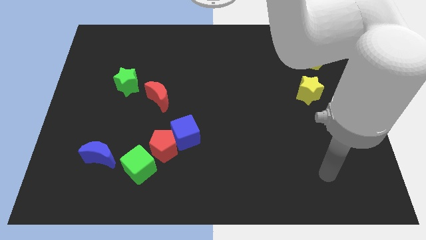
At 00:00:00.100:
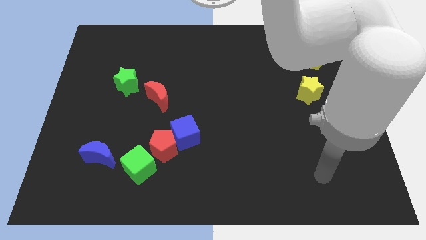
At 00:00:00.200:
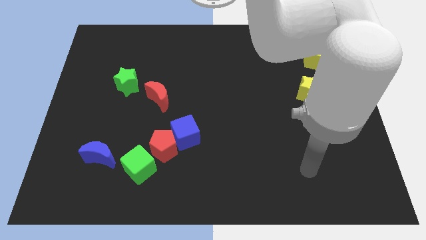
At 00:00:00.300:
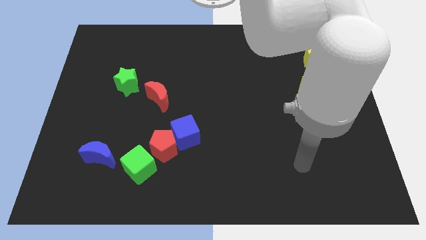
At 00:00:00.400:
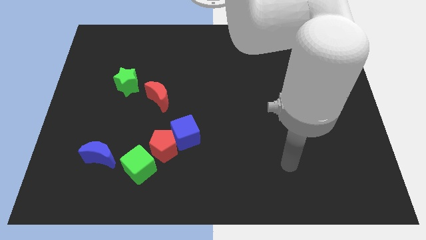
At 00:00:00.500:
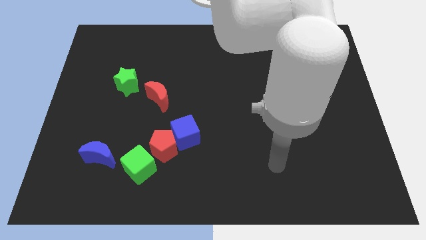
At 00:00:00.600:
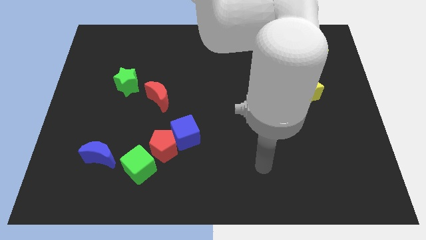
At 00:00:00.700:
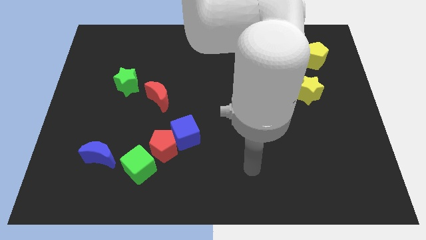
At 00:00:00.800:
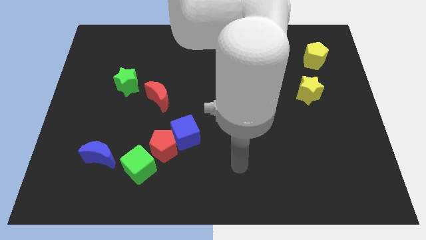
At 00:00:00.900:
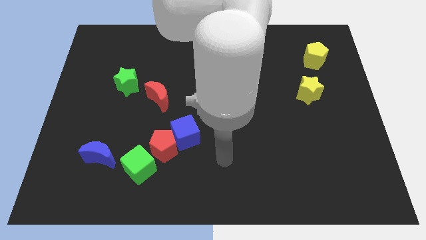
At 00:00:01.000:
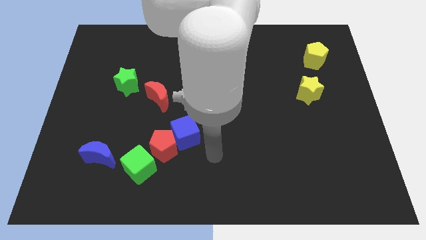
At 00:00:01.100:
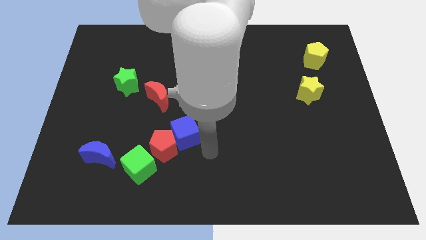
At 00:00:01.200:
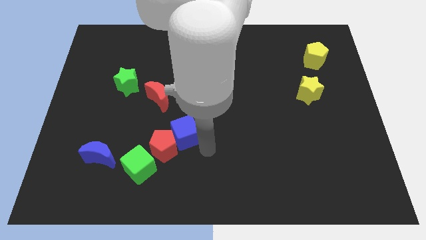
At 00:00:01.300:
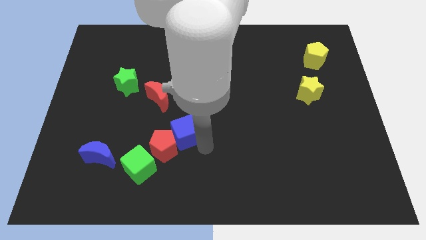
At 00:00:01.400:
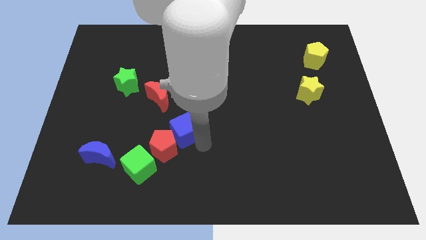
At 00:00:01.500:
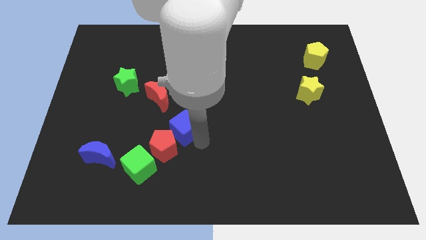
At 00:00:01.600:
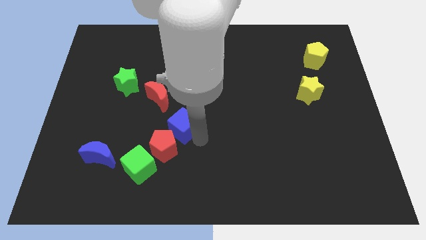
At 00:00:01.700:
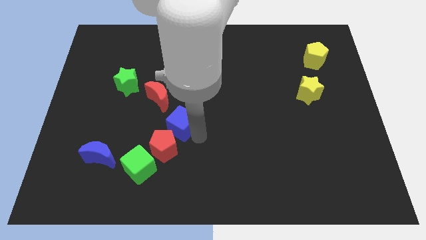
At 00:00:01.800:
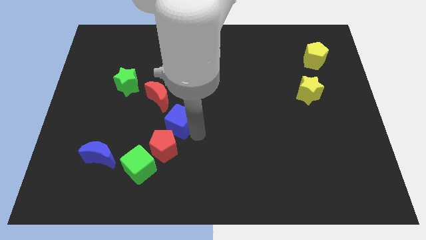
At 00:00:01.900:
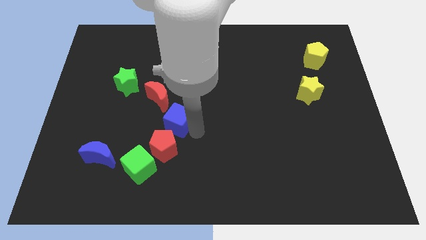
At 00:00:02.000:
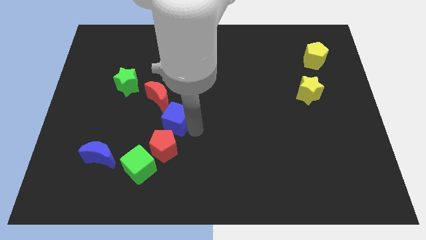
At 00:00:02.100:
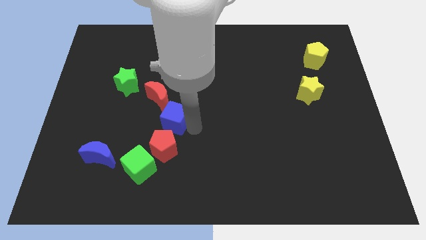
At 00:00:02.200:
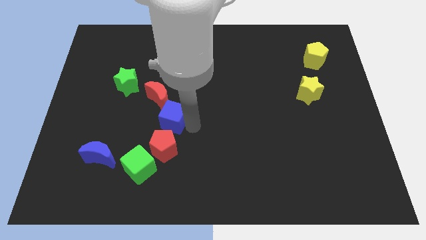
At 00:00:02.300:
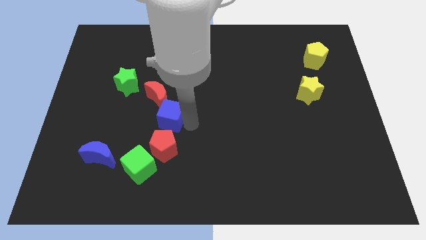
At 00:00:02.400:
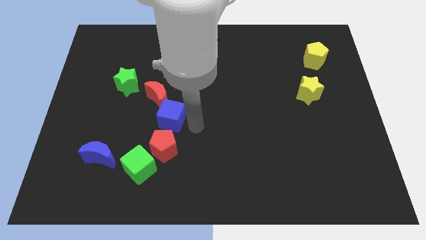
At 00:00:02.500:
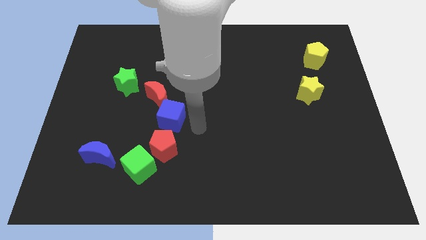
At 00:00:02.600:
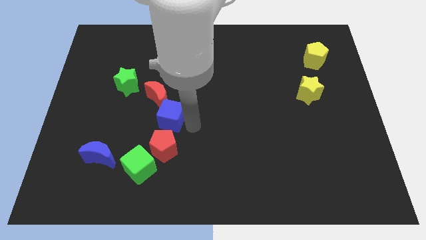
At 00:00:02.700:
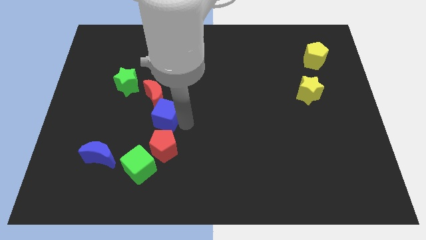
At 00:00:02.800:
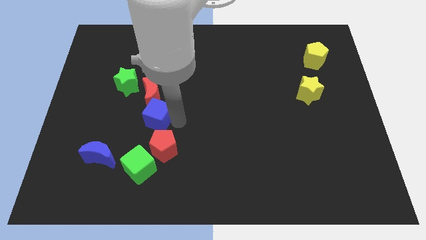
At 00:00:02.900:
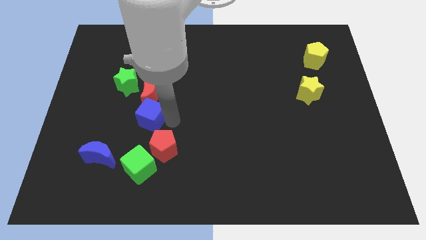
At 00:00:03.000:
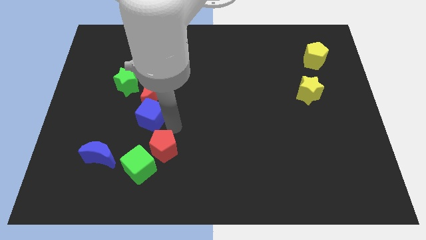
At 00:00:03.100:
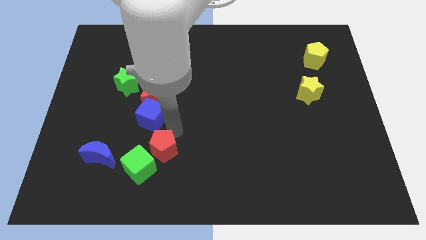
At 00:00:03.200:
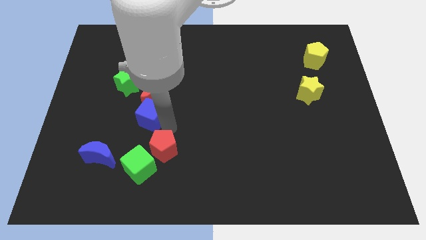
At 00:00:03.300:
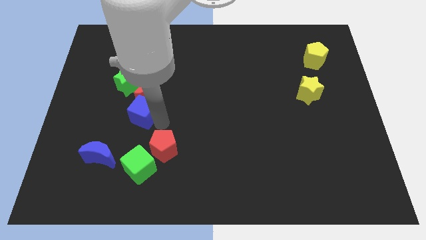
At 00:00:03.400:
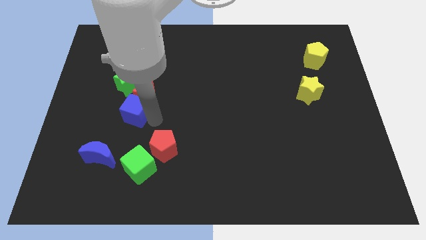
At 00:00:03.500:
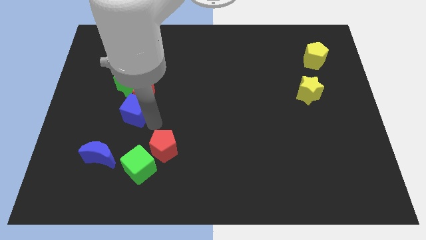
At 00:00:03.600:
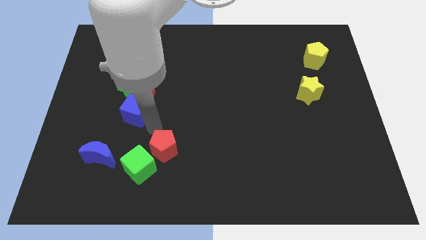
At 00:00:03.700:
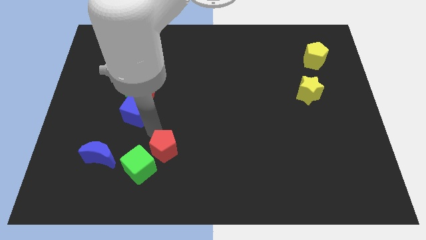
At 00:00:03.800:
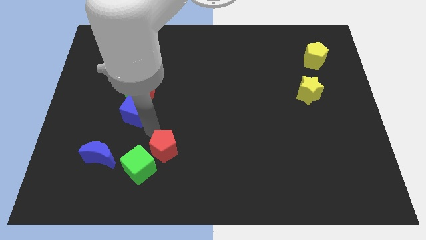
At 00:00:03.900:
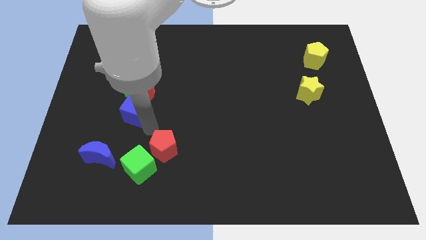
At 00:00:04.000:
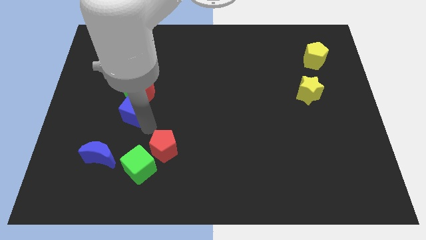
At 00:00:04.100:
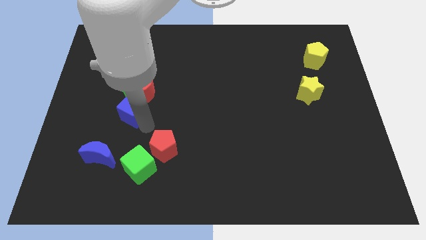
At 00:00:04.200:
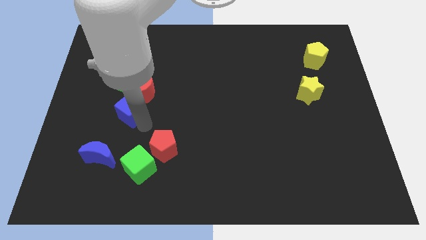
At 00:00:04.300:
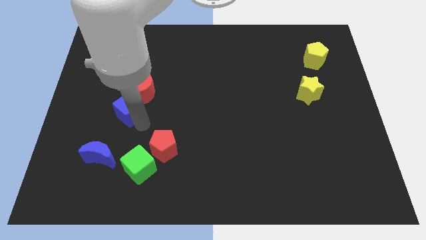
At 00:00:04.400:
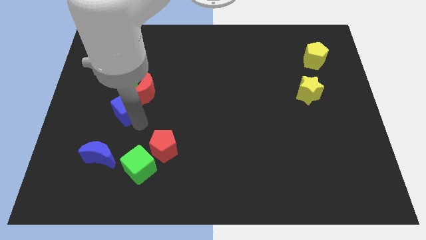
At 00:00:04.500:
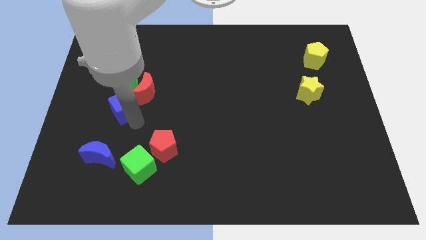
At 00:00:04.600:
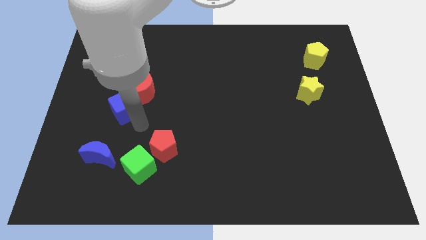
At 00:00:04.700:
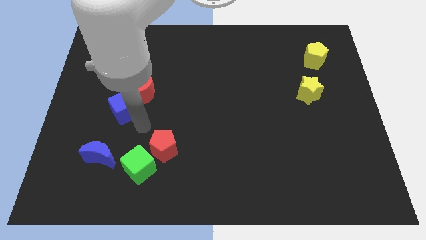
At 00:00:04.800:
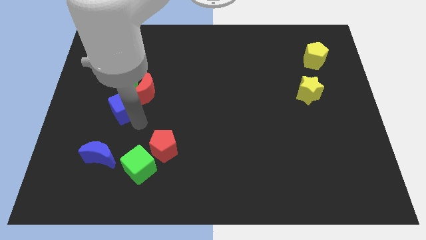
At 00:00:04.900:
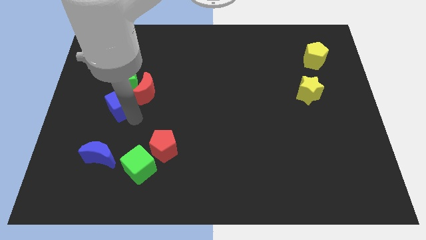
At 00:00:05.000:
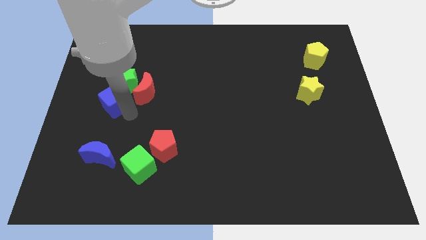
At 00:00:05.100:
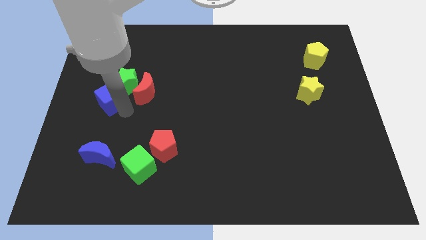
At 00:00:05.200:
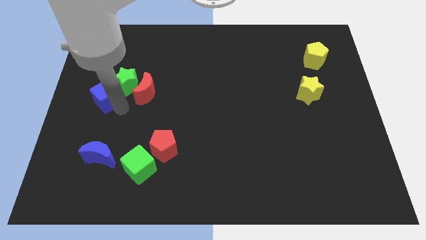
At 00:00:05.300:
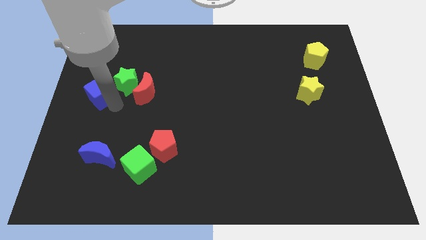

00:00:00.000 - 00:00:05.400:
move the blue cube upwards and to the left

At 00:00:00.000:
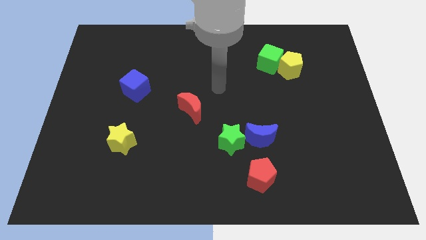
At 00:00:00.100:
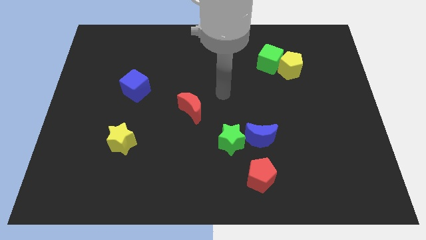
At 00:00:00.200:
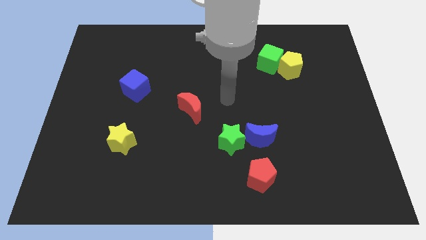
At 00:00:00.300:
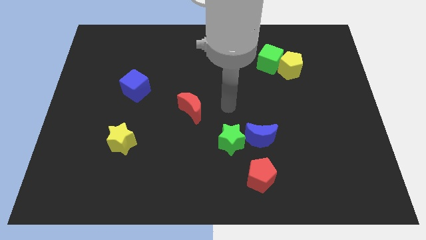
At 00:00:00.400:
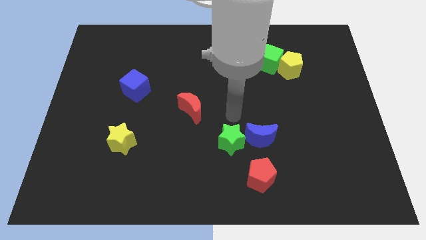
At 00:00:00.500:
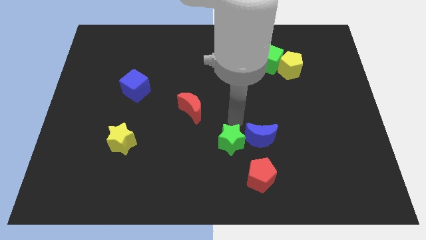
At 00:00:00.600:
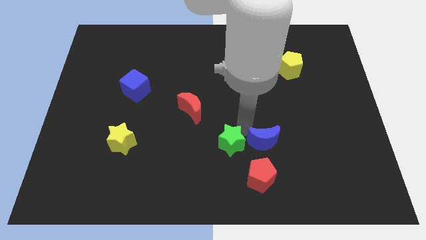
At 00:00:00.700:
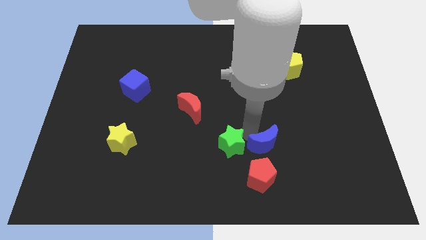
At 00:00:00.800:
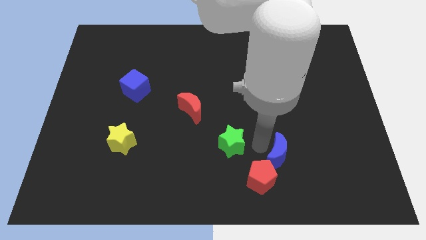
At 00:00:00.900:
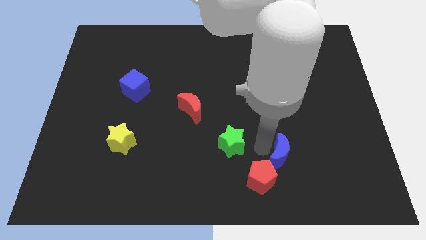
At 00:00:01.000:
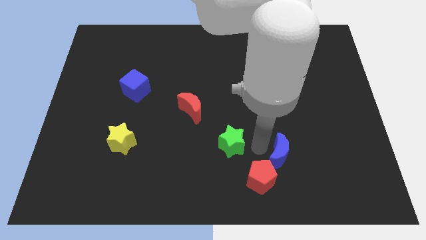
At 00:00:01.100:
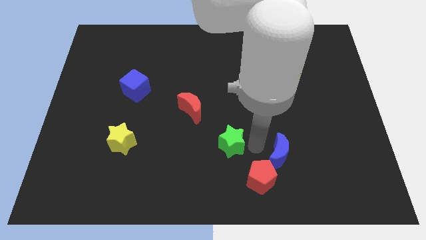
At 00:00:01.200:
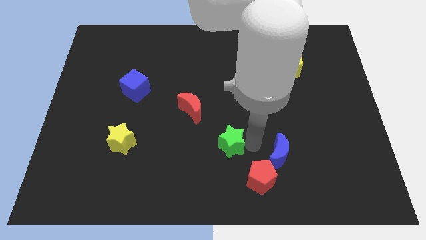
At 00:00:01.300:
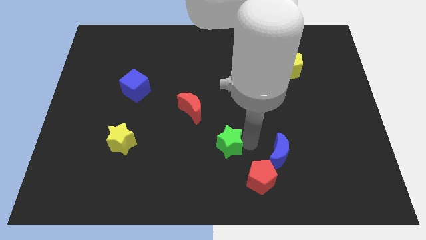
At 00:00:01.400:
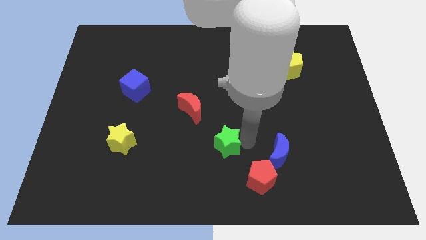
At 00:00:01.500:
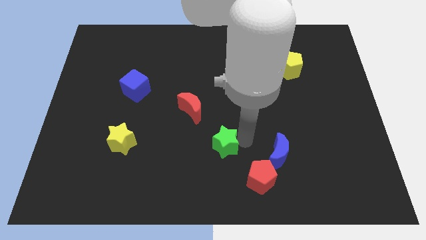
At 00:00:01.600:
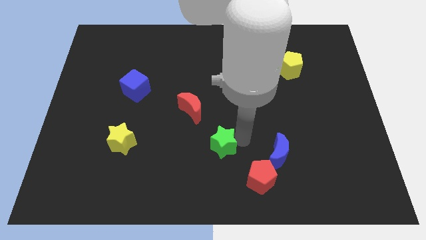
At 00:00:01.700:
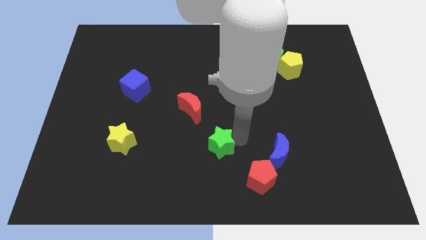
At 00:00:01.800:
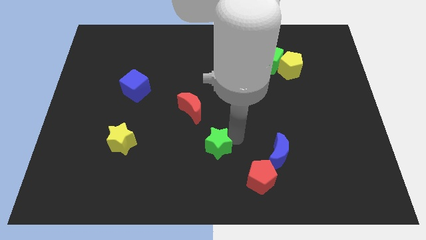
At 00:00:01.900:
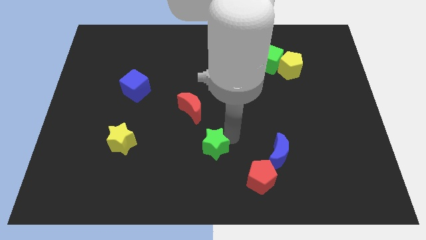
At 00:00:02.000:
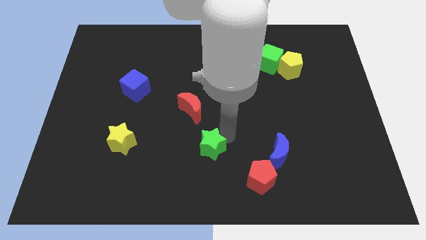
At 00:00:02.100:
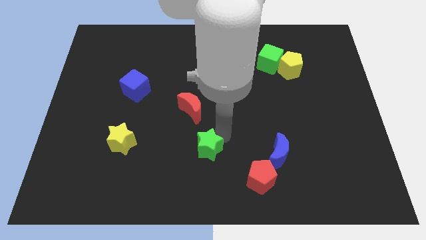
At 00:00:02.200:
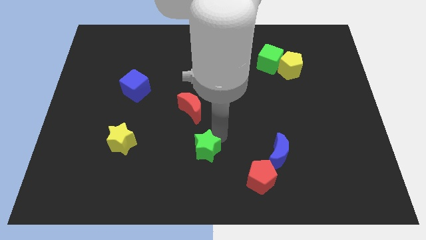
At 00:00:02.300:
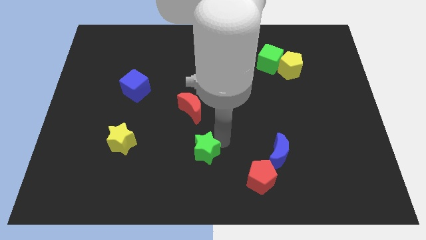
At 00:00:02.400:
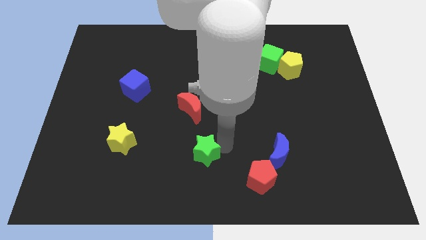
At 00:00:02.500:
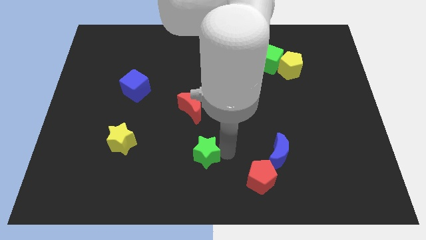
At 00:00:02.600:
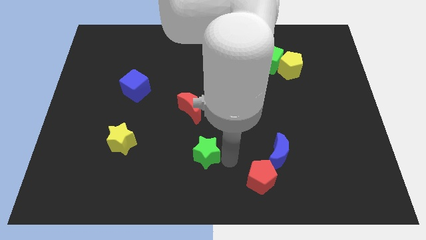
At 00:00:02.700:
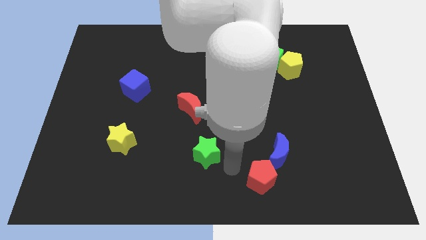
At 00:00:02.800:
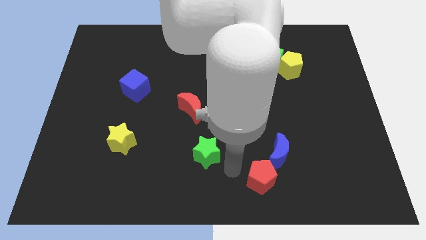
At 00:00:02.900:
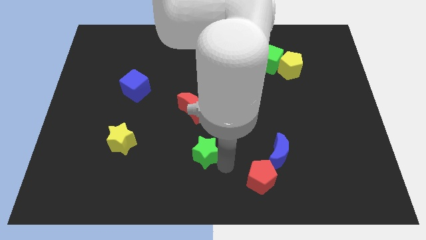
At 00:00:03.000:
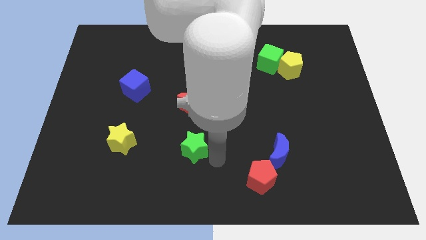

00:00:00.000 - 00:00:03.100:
push the green star to the left a bit
